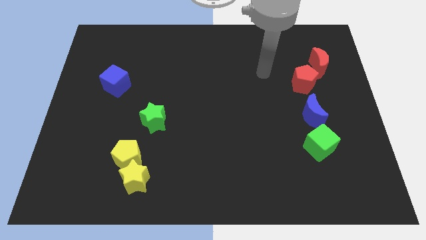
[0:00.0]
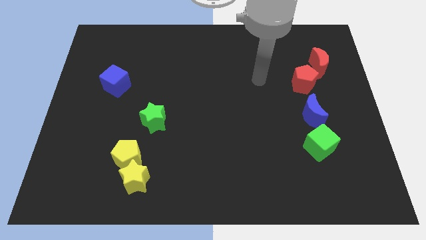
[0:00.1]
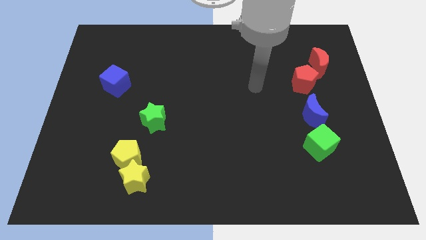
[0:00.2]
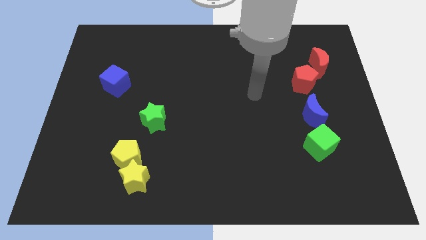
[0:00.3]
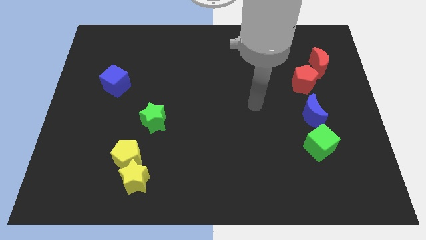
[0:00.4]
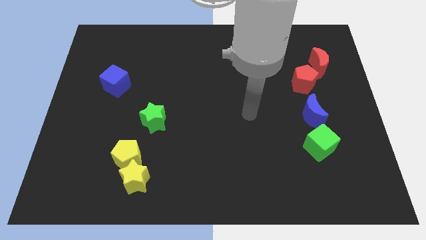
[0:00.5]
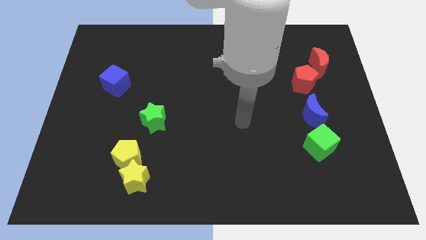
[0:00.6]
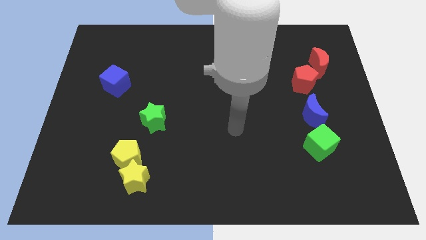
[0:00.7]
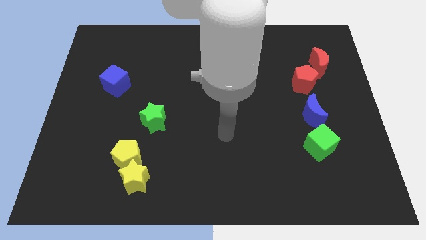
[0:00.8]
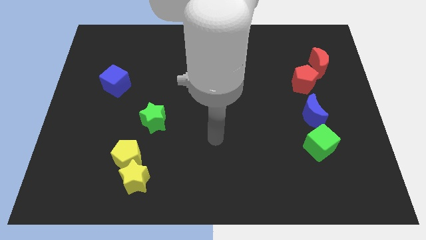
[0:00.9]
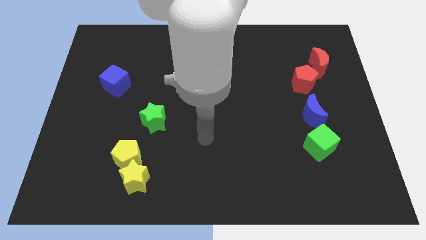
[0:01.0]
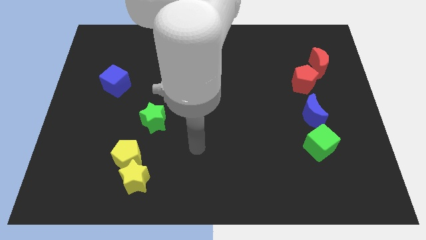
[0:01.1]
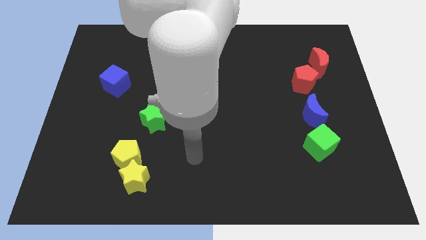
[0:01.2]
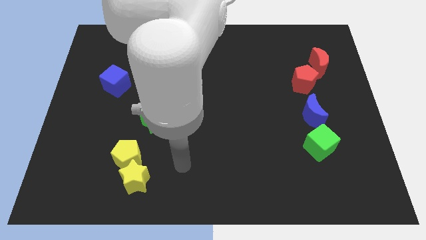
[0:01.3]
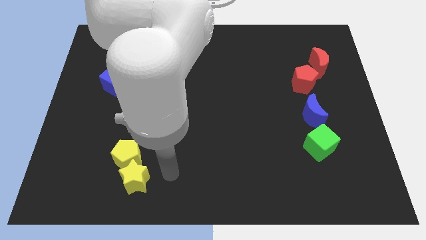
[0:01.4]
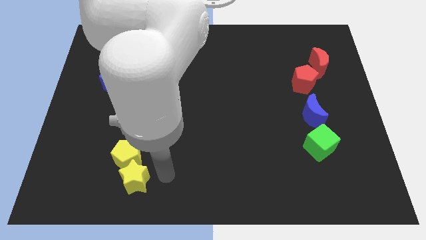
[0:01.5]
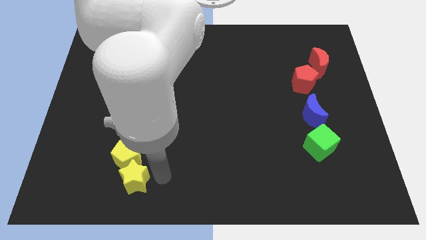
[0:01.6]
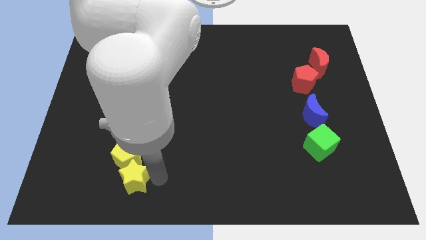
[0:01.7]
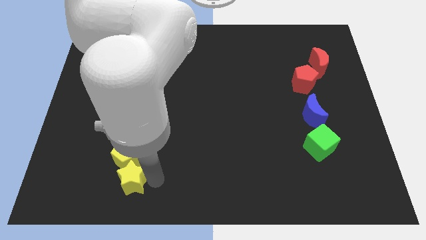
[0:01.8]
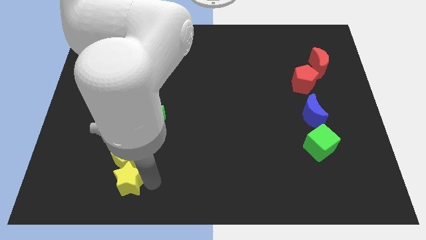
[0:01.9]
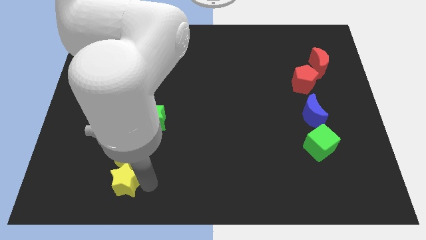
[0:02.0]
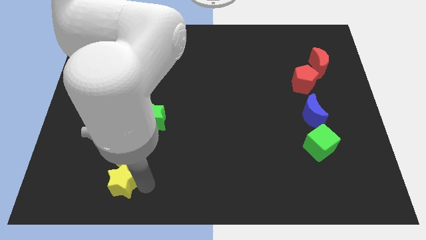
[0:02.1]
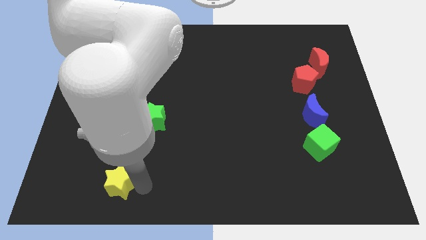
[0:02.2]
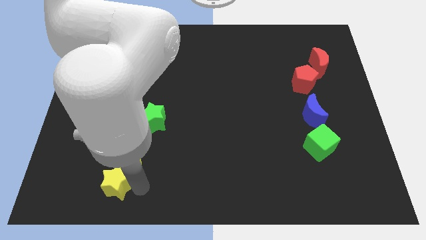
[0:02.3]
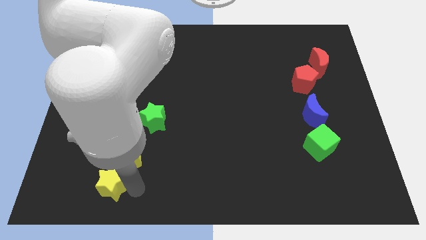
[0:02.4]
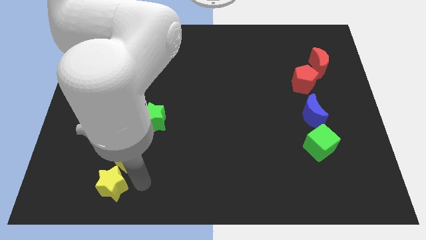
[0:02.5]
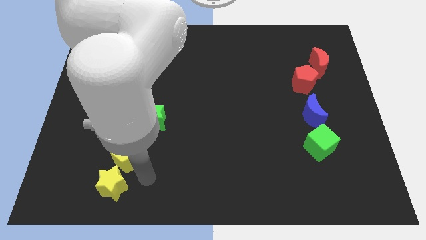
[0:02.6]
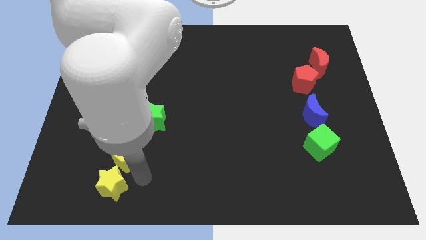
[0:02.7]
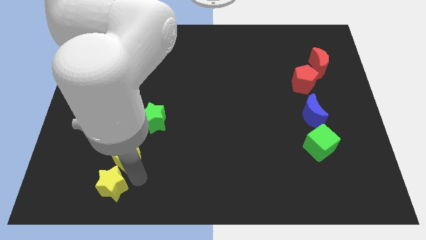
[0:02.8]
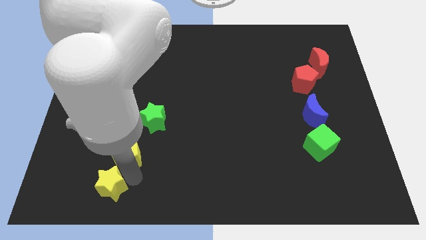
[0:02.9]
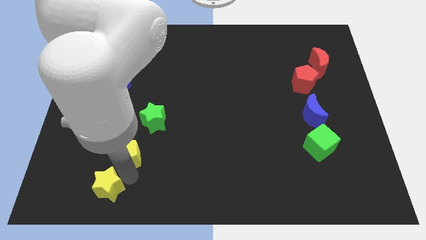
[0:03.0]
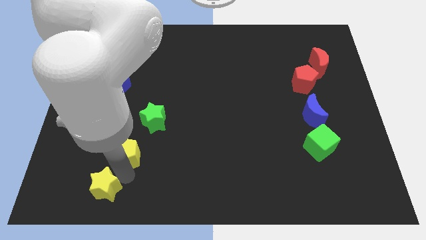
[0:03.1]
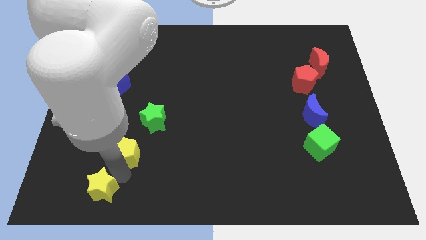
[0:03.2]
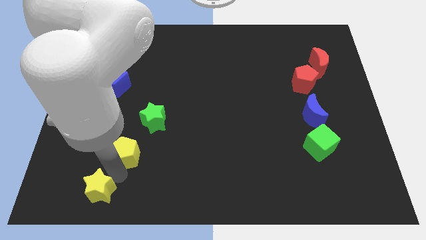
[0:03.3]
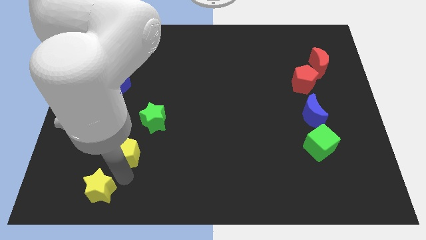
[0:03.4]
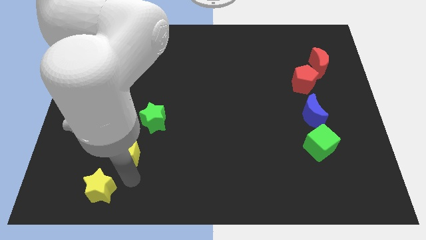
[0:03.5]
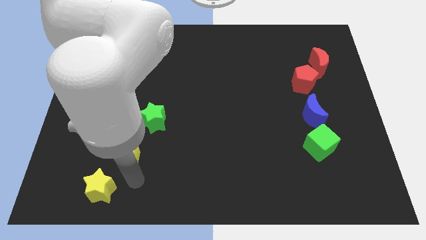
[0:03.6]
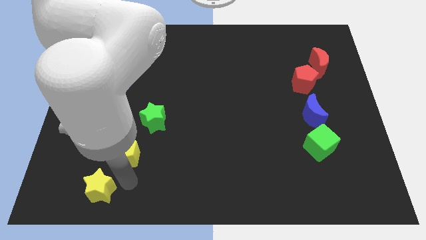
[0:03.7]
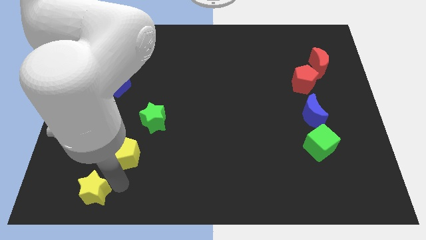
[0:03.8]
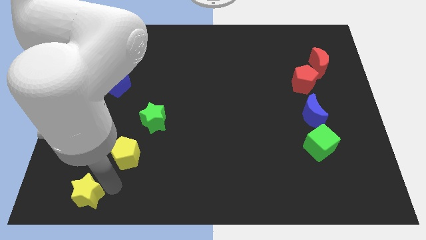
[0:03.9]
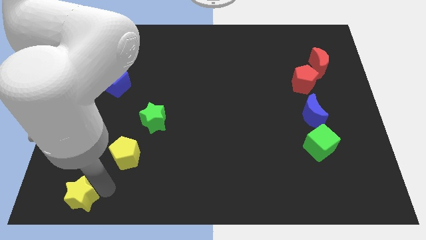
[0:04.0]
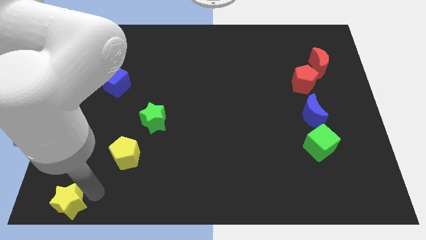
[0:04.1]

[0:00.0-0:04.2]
slide the yellow star to the bottom left of the board

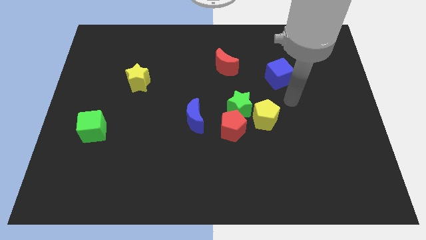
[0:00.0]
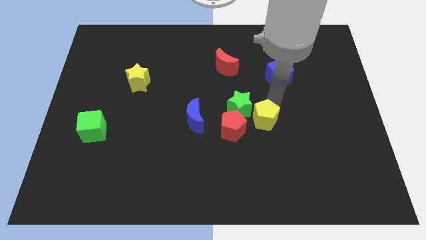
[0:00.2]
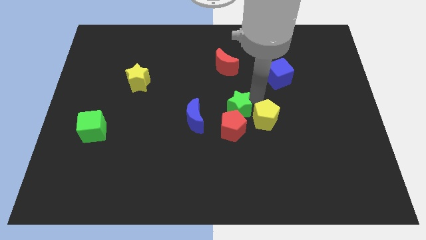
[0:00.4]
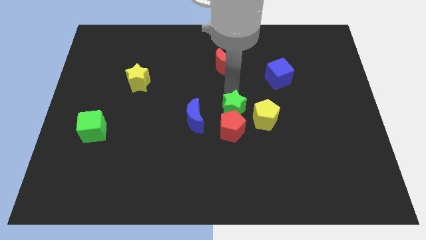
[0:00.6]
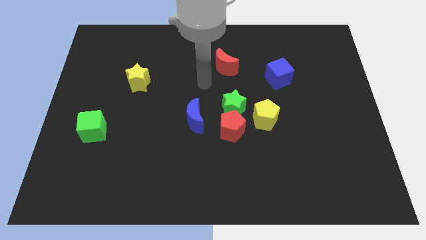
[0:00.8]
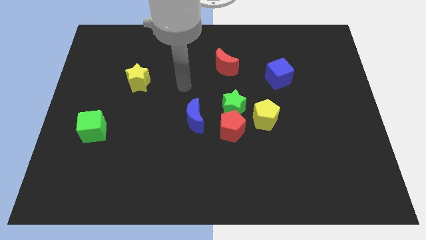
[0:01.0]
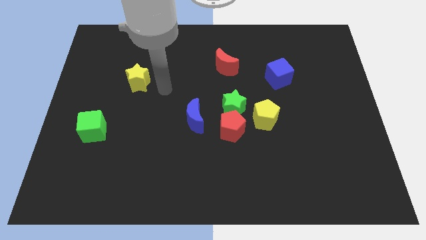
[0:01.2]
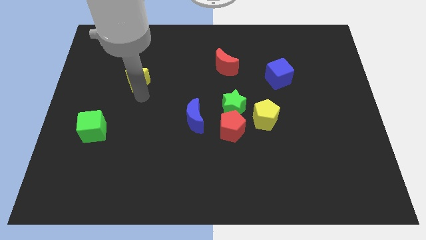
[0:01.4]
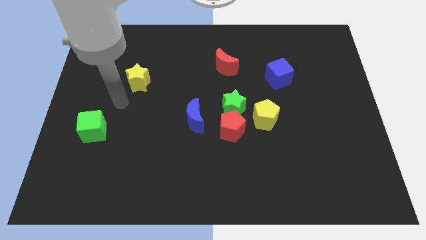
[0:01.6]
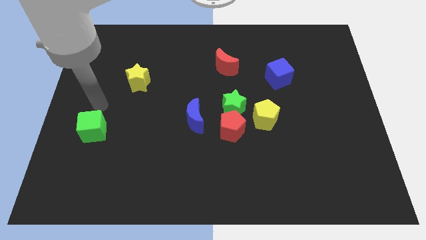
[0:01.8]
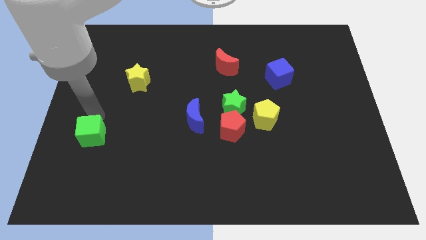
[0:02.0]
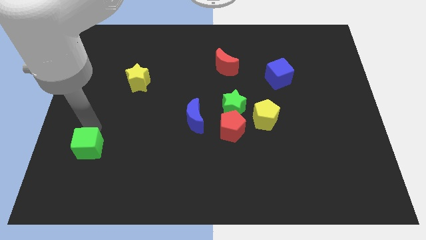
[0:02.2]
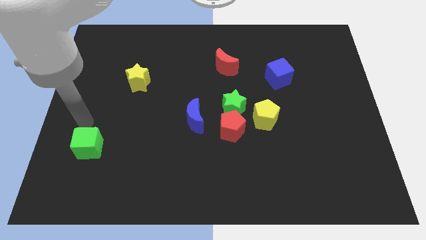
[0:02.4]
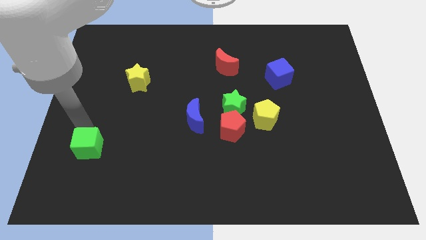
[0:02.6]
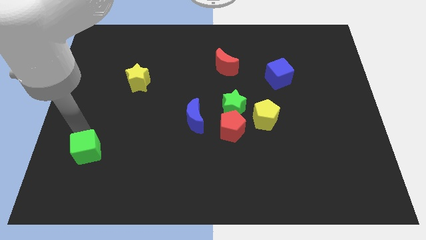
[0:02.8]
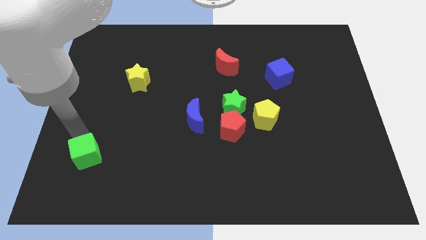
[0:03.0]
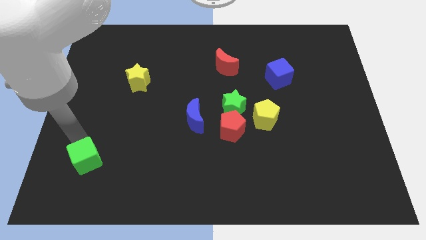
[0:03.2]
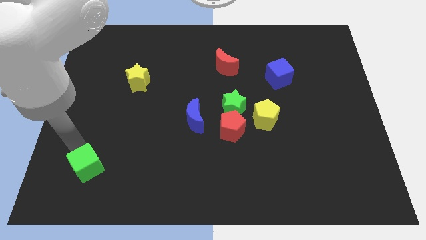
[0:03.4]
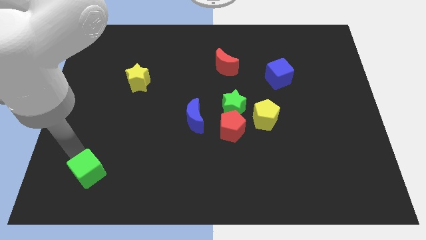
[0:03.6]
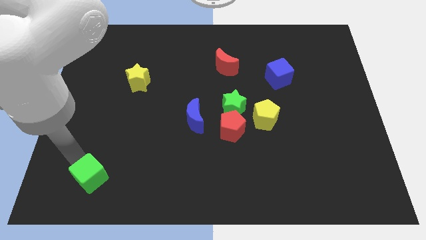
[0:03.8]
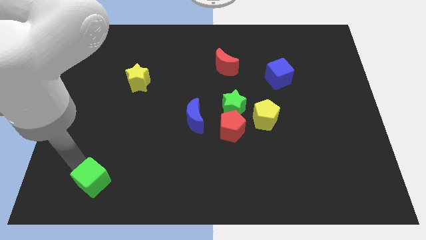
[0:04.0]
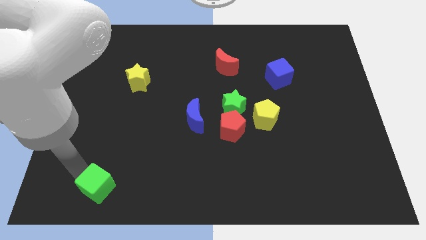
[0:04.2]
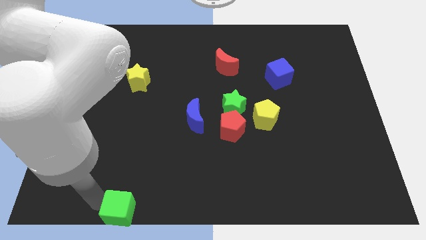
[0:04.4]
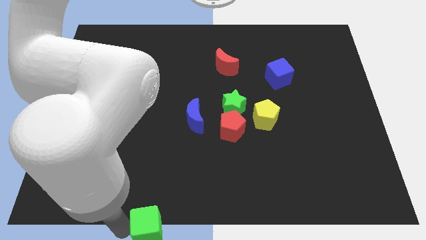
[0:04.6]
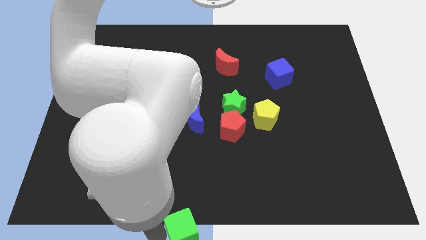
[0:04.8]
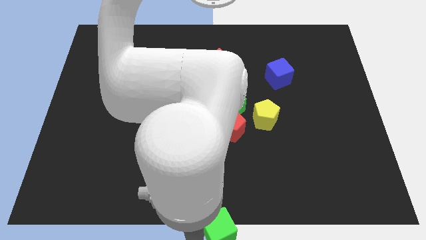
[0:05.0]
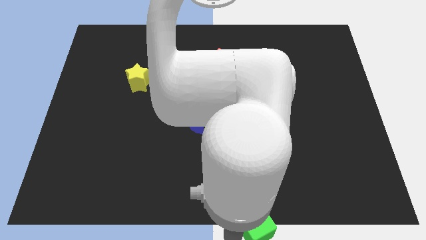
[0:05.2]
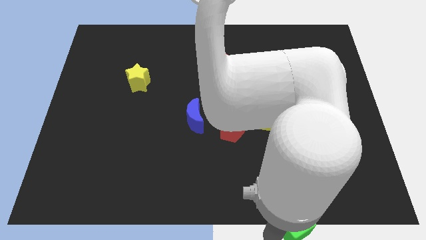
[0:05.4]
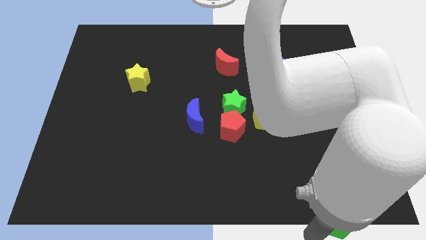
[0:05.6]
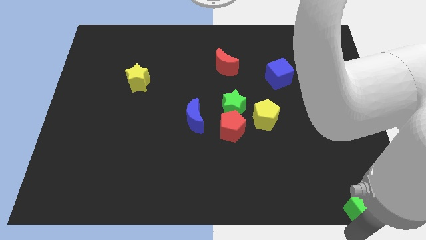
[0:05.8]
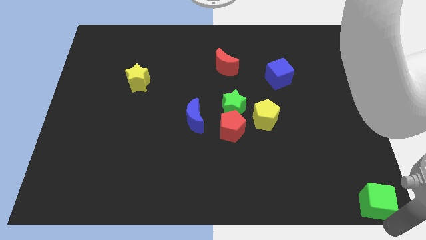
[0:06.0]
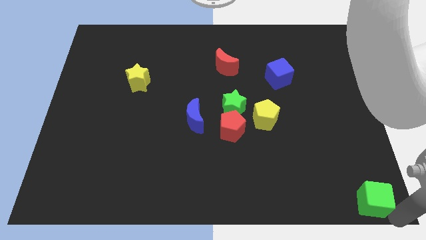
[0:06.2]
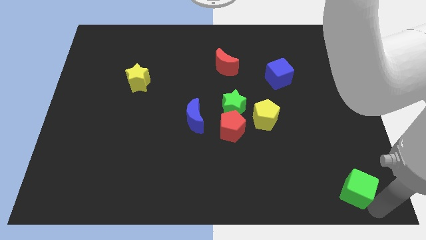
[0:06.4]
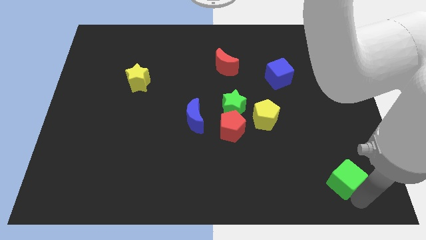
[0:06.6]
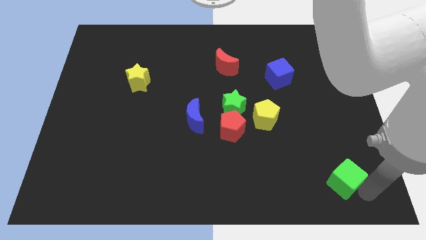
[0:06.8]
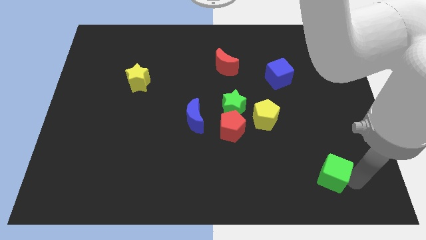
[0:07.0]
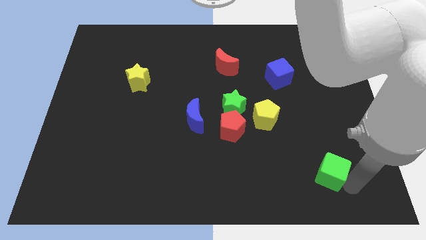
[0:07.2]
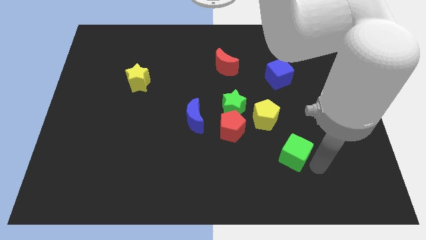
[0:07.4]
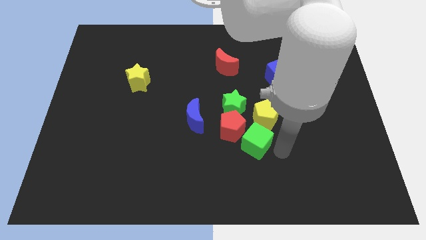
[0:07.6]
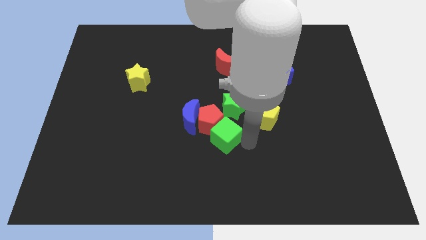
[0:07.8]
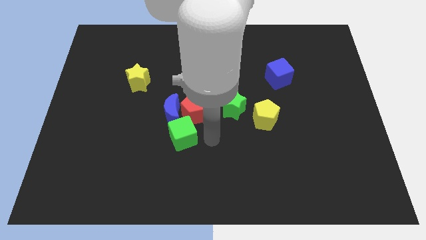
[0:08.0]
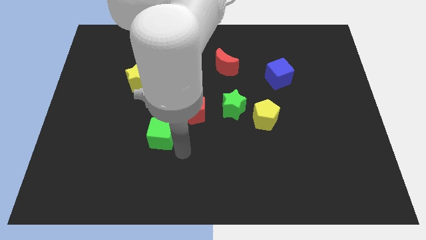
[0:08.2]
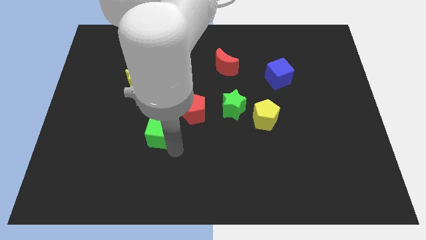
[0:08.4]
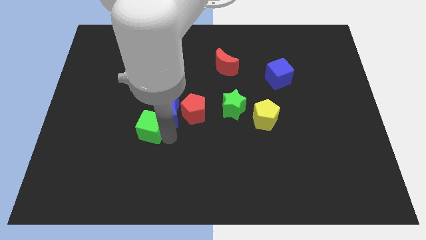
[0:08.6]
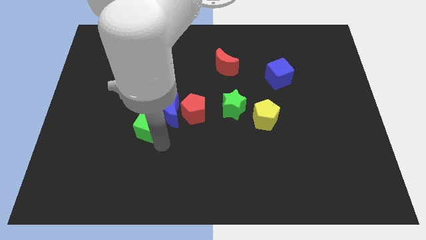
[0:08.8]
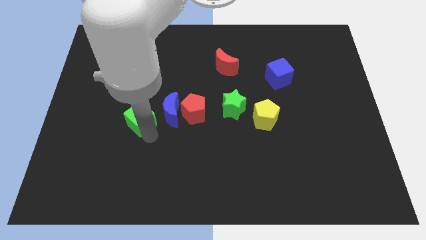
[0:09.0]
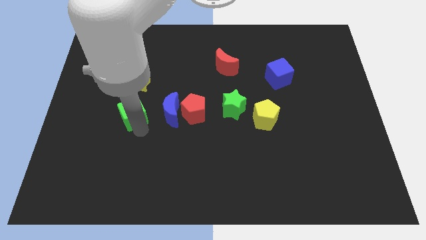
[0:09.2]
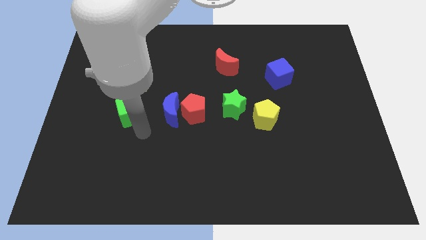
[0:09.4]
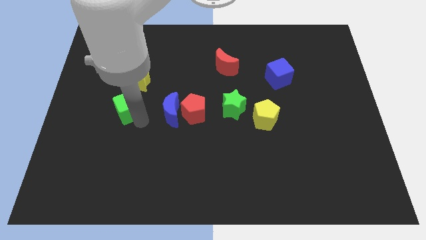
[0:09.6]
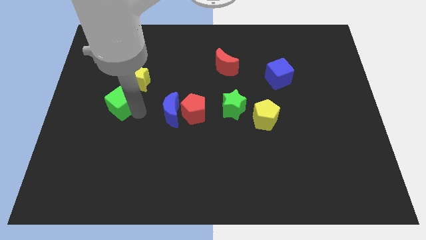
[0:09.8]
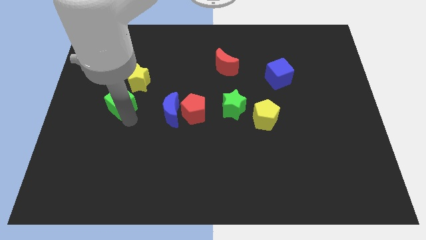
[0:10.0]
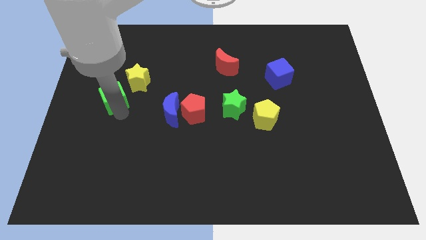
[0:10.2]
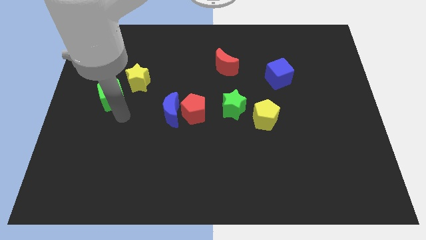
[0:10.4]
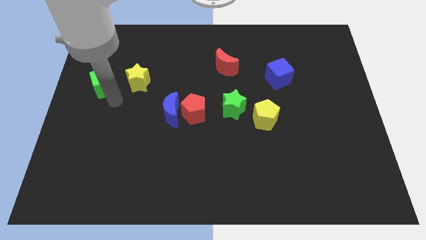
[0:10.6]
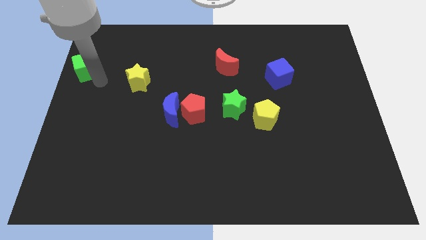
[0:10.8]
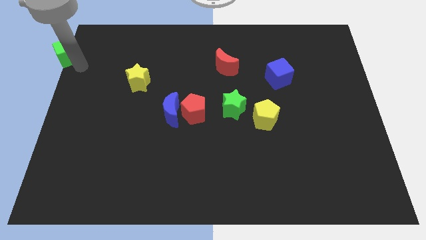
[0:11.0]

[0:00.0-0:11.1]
move the green cube to the top left
